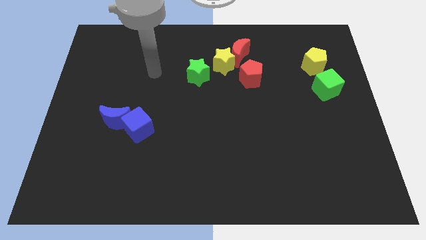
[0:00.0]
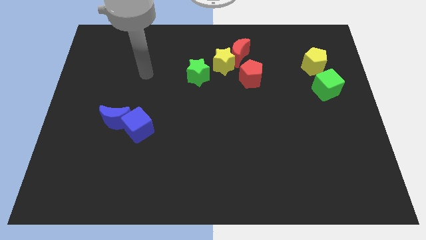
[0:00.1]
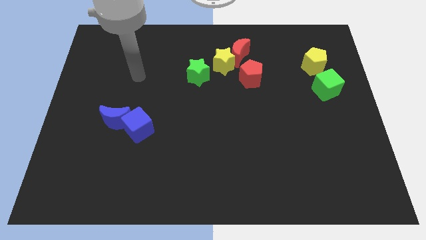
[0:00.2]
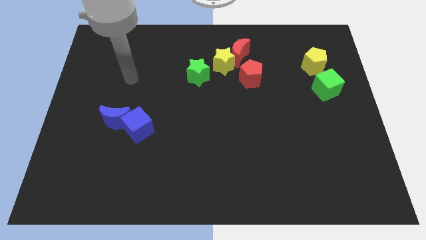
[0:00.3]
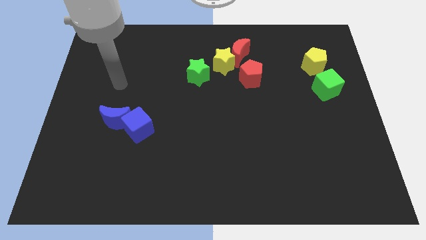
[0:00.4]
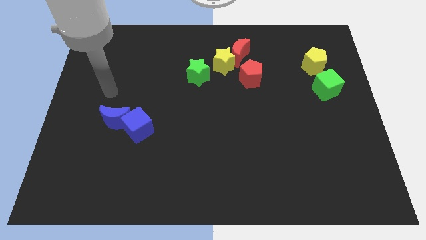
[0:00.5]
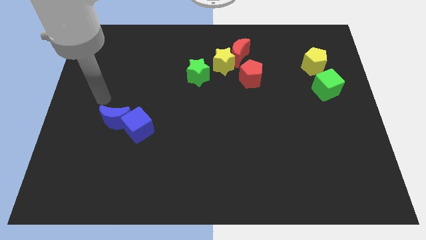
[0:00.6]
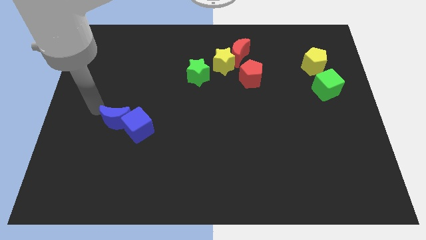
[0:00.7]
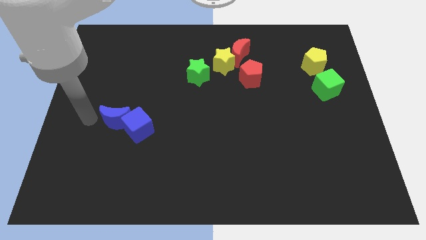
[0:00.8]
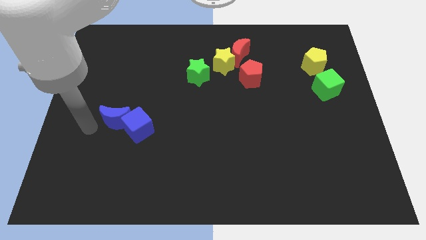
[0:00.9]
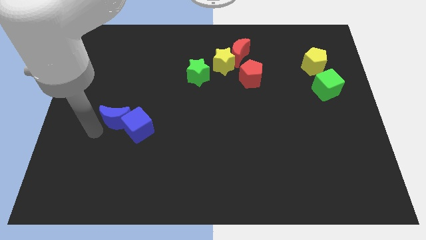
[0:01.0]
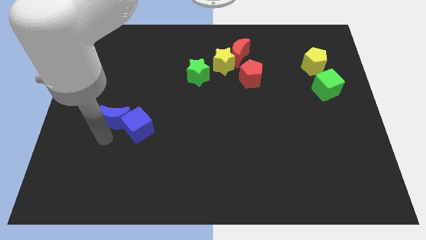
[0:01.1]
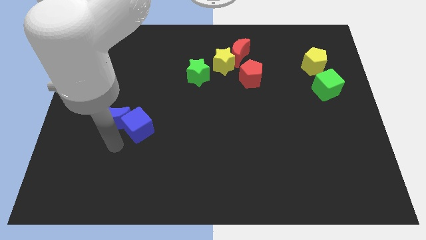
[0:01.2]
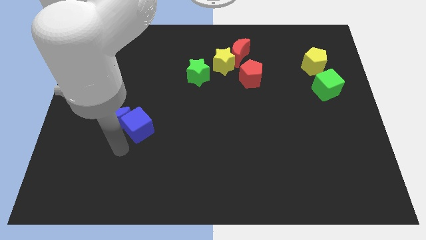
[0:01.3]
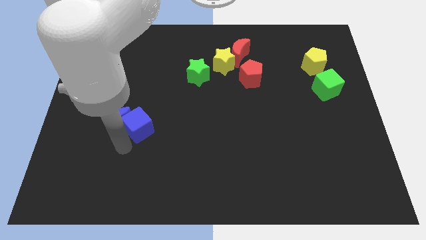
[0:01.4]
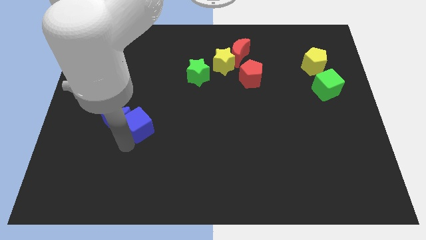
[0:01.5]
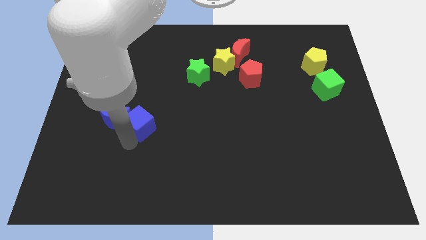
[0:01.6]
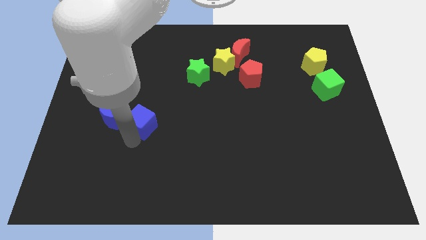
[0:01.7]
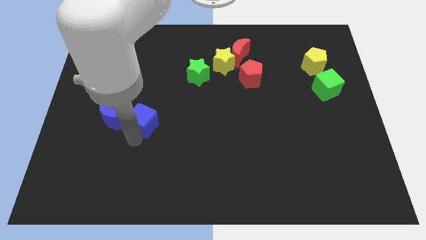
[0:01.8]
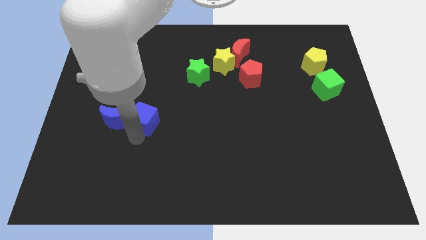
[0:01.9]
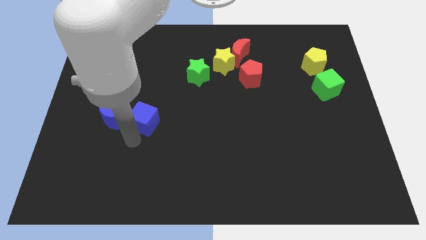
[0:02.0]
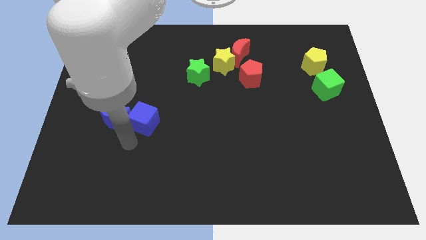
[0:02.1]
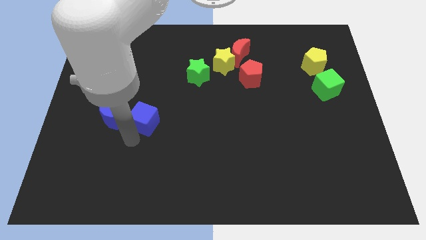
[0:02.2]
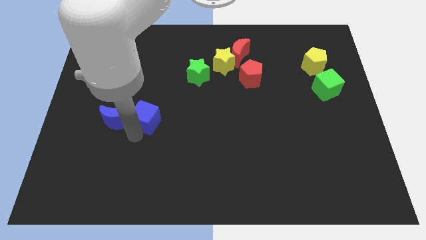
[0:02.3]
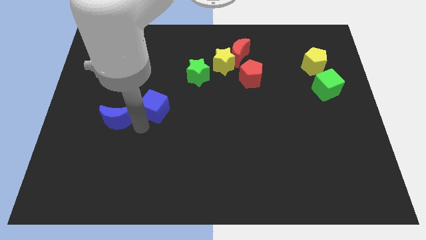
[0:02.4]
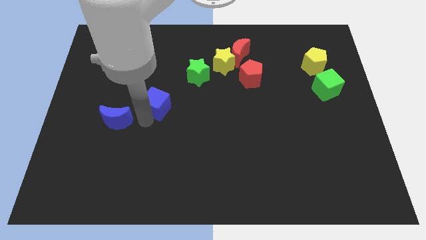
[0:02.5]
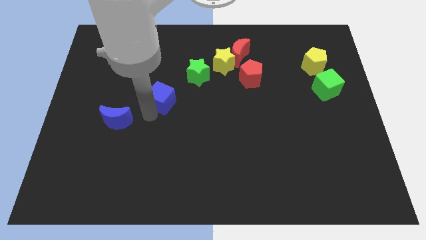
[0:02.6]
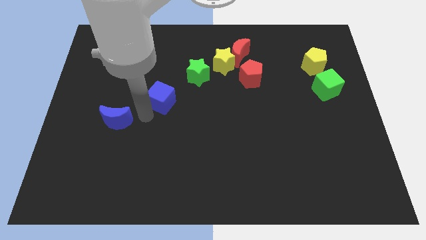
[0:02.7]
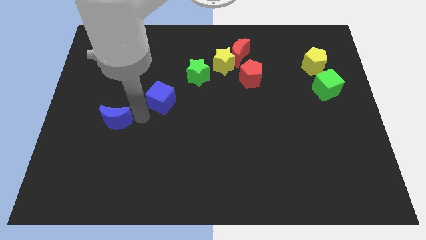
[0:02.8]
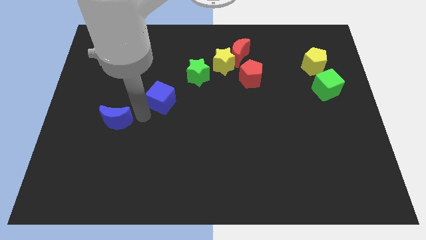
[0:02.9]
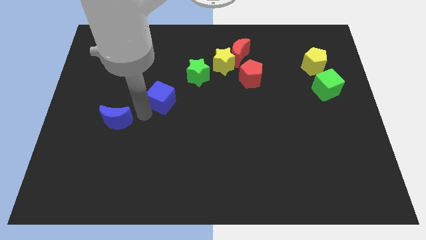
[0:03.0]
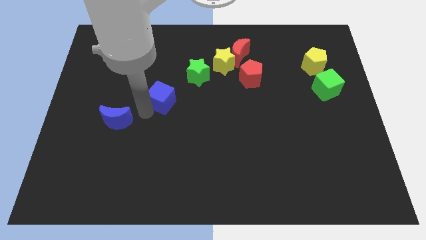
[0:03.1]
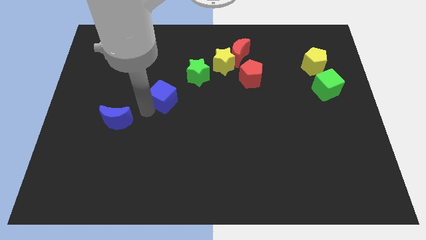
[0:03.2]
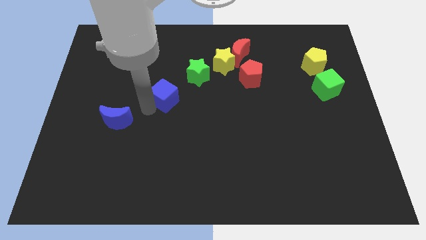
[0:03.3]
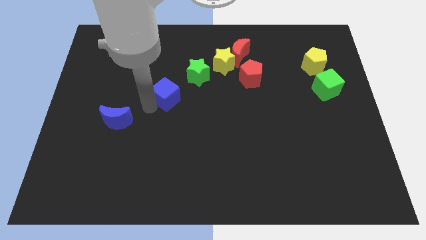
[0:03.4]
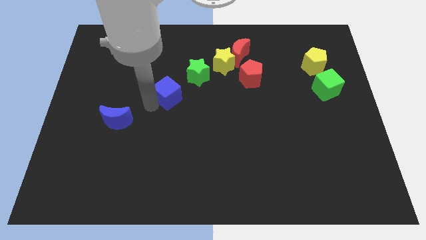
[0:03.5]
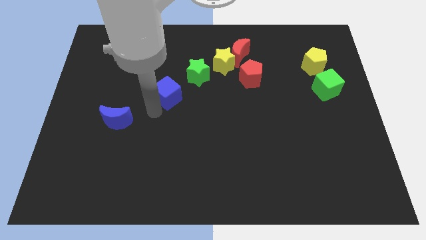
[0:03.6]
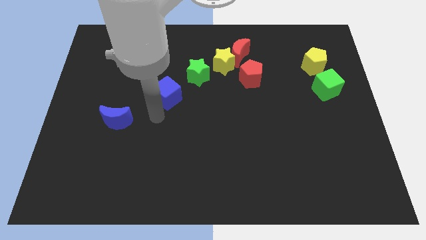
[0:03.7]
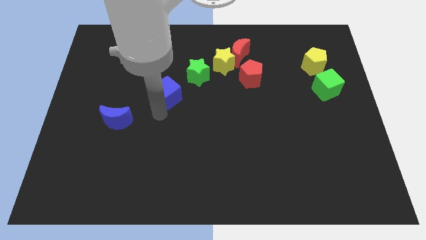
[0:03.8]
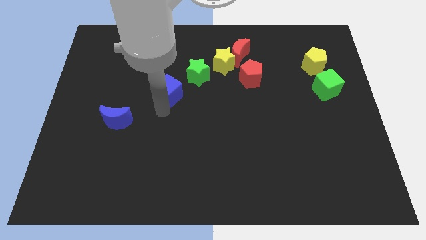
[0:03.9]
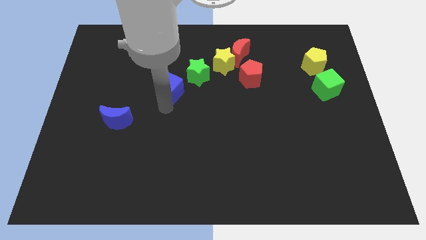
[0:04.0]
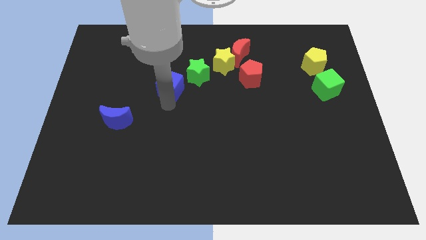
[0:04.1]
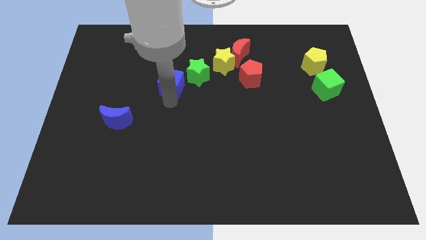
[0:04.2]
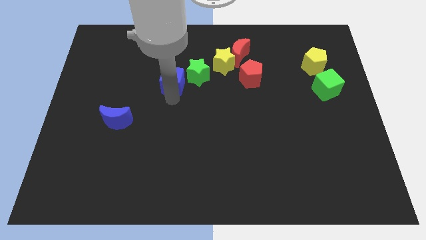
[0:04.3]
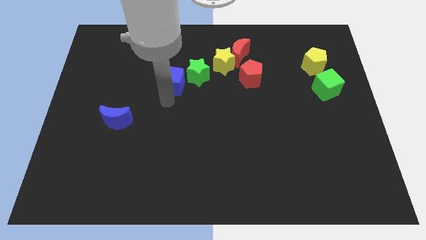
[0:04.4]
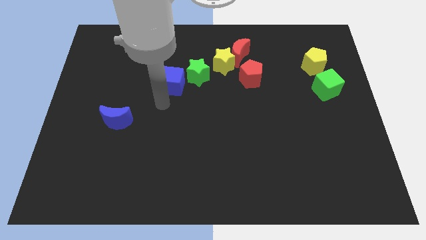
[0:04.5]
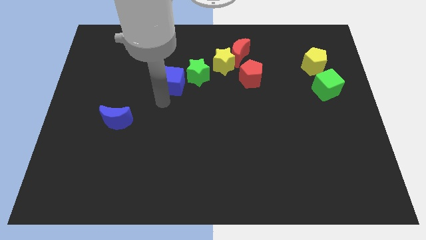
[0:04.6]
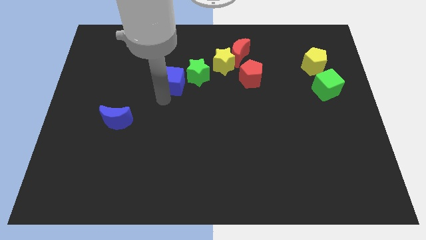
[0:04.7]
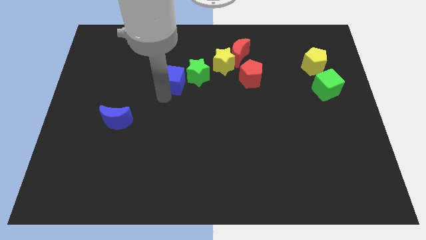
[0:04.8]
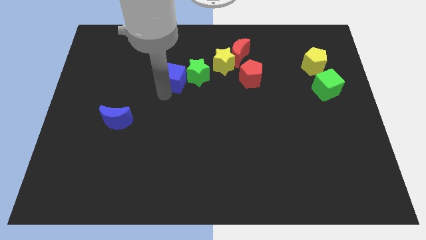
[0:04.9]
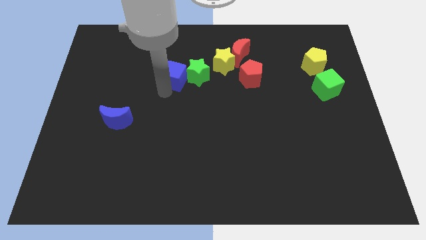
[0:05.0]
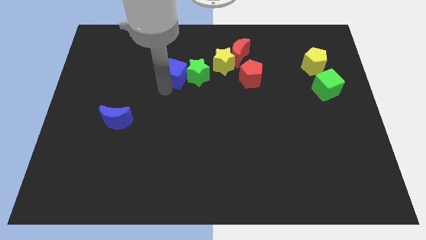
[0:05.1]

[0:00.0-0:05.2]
push the blue cube left of the yellow star

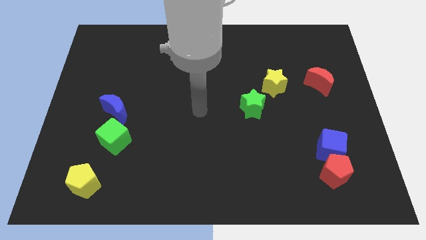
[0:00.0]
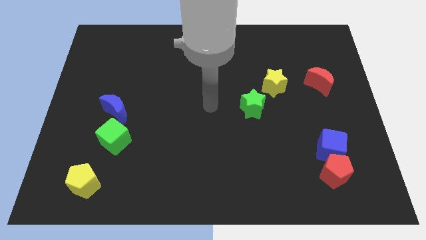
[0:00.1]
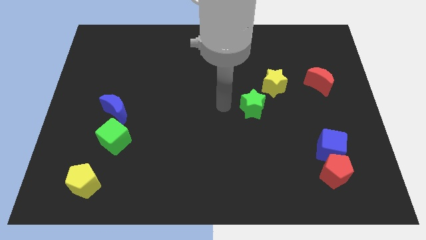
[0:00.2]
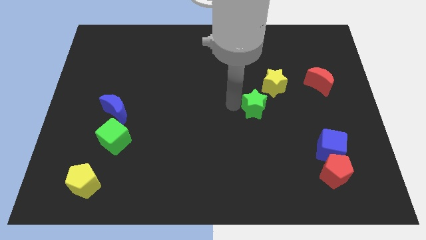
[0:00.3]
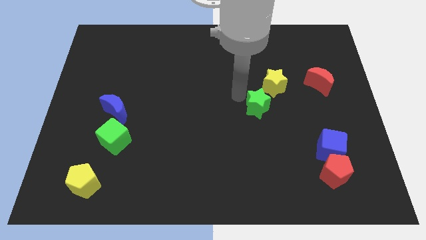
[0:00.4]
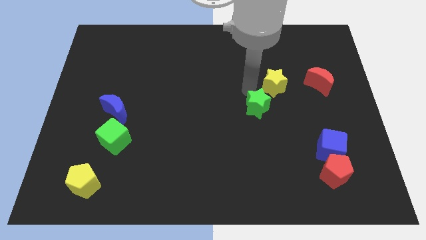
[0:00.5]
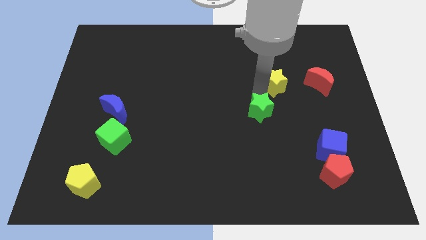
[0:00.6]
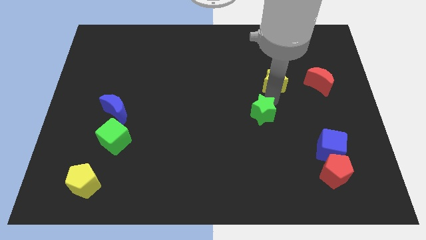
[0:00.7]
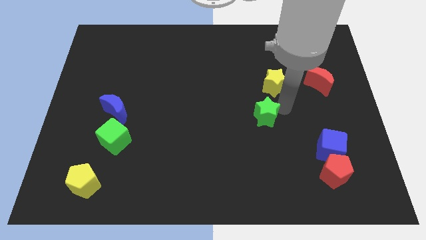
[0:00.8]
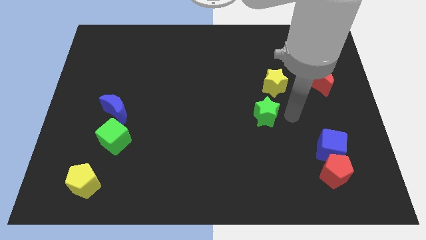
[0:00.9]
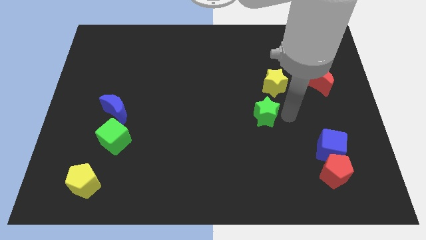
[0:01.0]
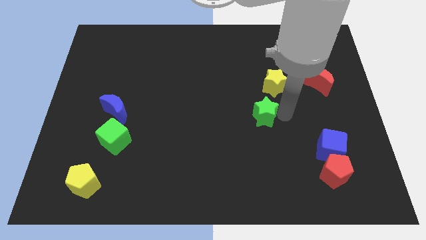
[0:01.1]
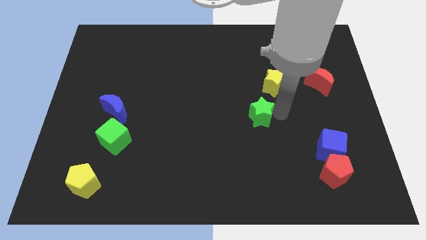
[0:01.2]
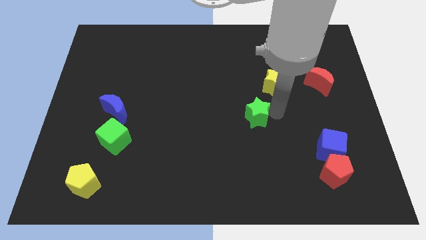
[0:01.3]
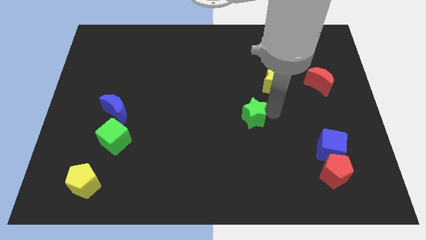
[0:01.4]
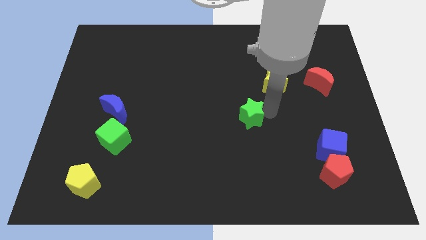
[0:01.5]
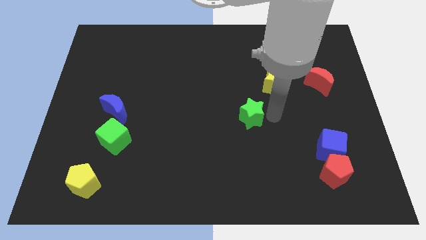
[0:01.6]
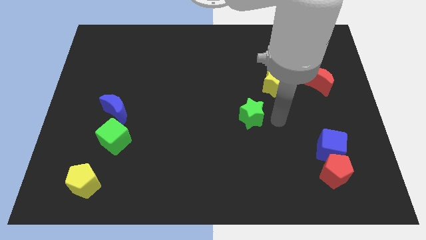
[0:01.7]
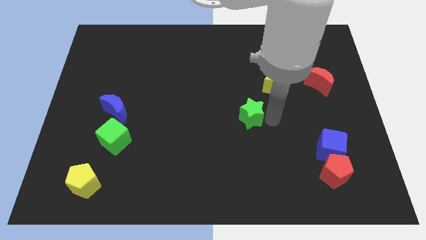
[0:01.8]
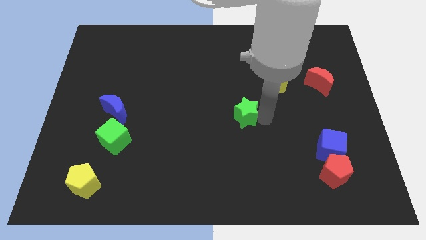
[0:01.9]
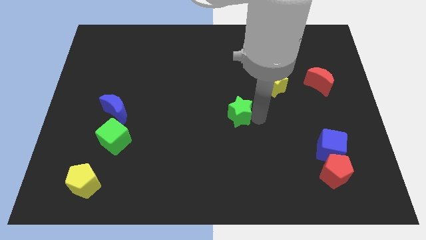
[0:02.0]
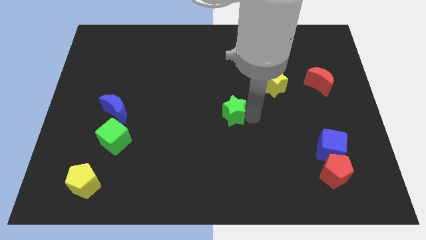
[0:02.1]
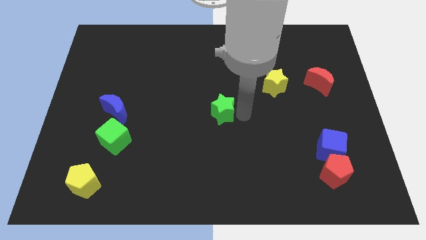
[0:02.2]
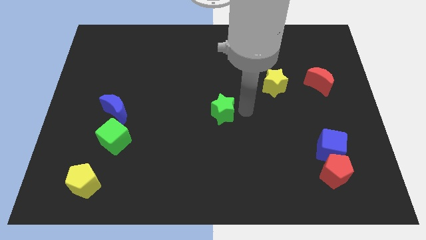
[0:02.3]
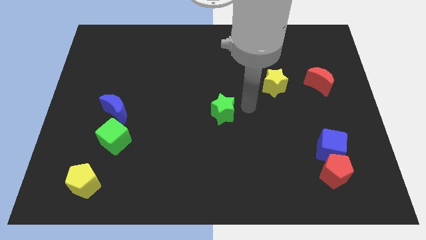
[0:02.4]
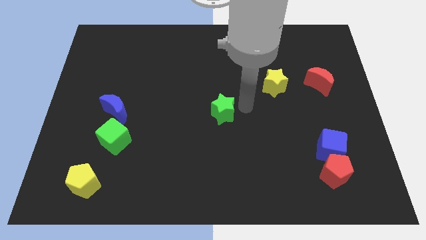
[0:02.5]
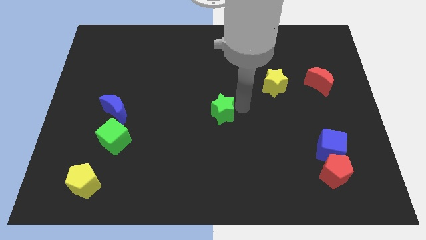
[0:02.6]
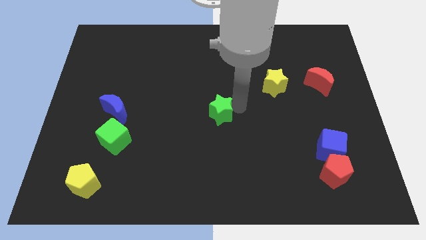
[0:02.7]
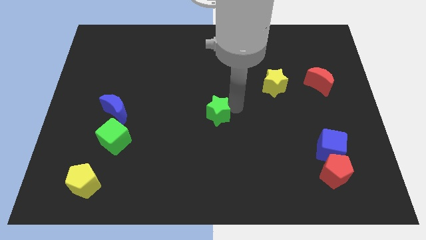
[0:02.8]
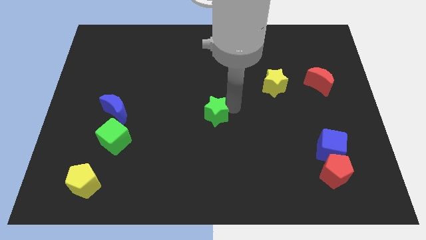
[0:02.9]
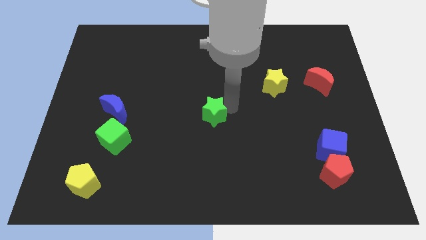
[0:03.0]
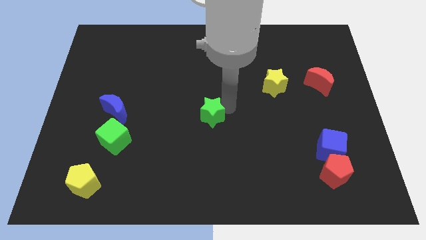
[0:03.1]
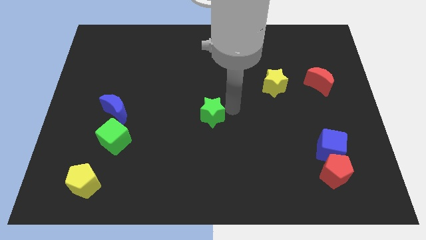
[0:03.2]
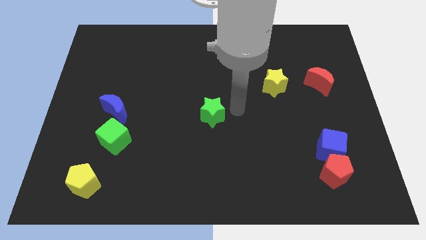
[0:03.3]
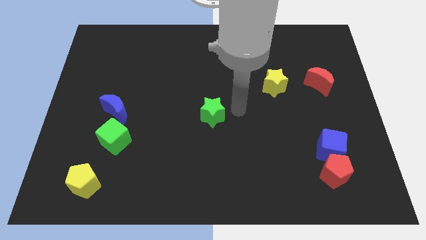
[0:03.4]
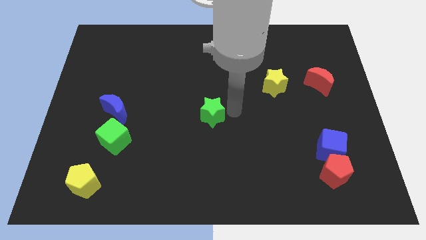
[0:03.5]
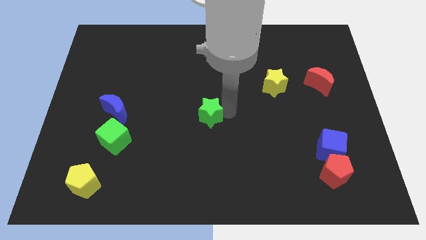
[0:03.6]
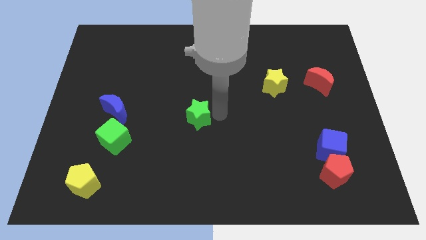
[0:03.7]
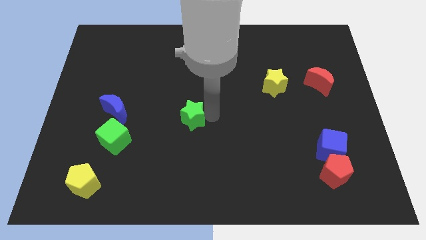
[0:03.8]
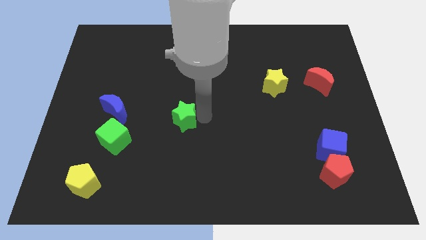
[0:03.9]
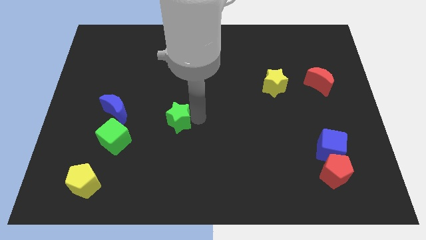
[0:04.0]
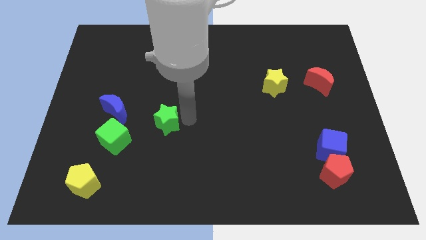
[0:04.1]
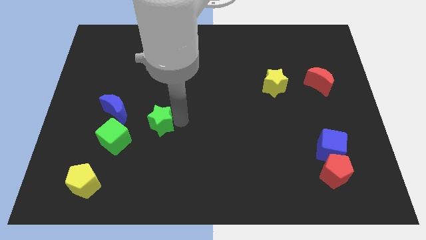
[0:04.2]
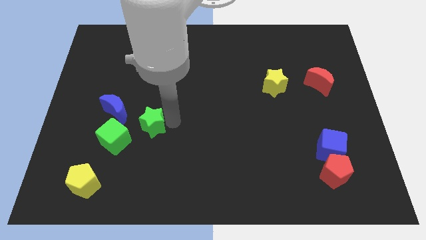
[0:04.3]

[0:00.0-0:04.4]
move the green star to the bottom right side of the blue moon
